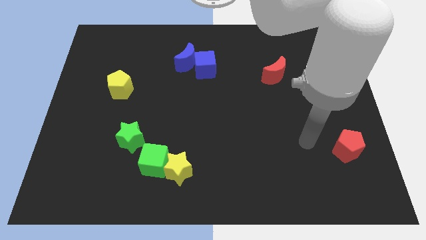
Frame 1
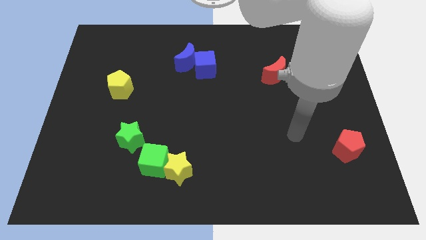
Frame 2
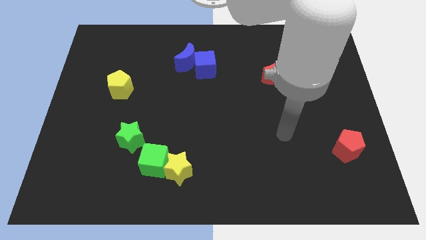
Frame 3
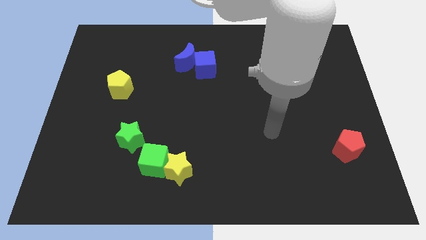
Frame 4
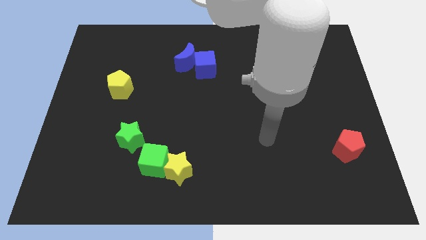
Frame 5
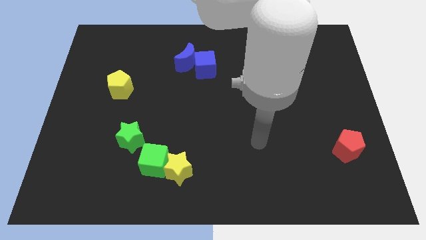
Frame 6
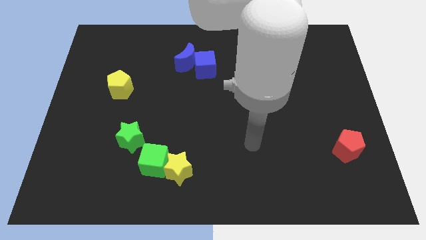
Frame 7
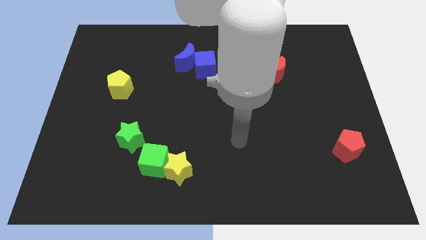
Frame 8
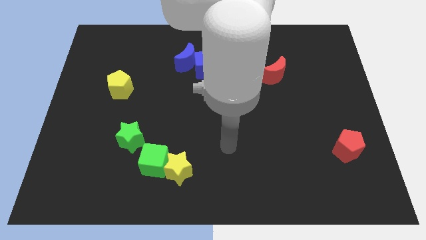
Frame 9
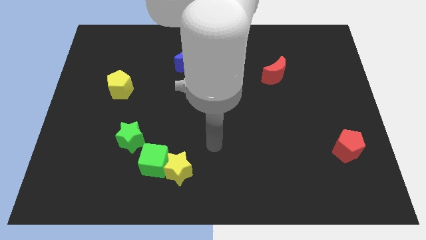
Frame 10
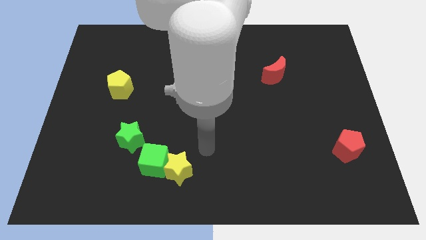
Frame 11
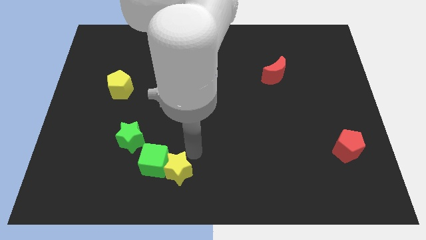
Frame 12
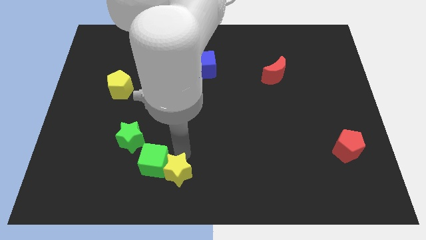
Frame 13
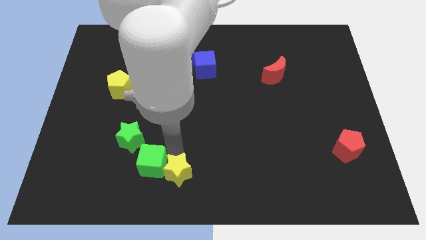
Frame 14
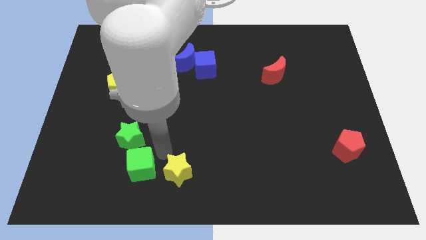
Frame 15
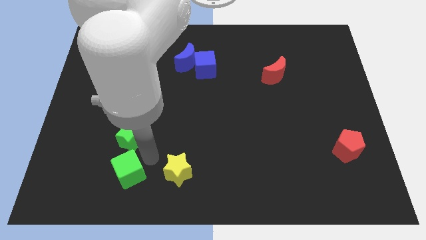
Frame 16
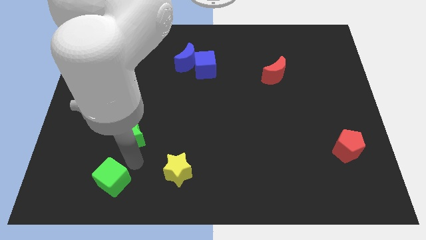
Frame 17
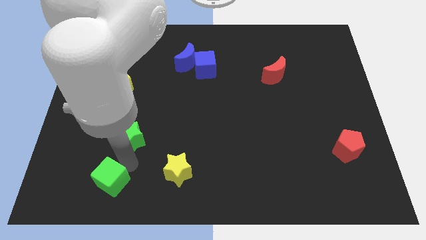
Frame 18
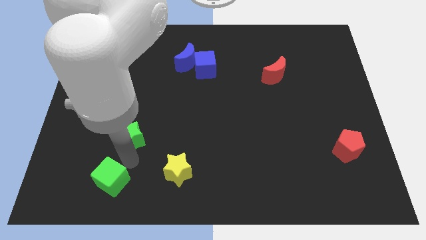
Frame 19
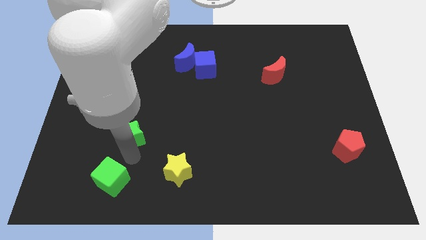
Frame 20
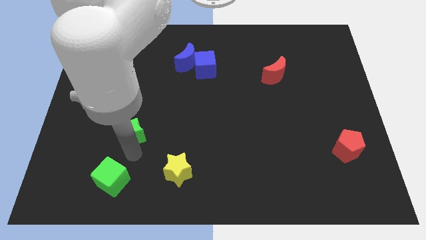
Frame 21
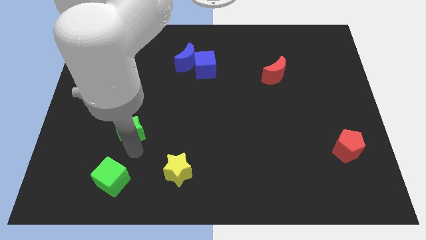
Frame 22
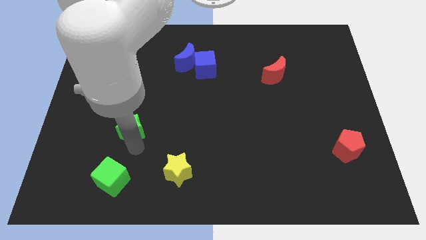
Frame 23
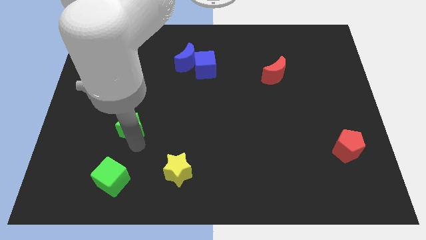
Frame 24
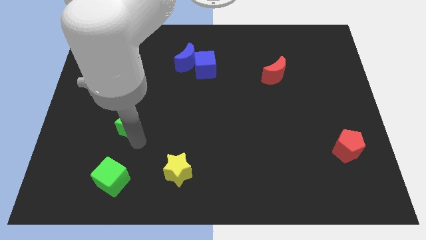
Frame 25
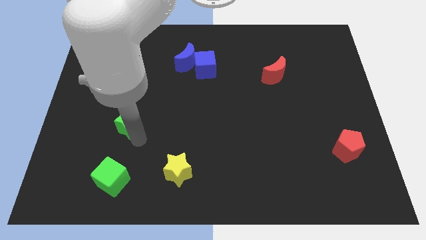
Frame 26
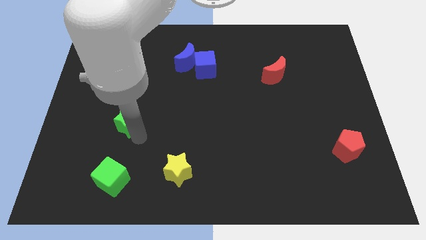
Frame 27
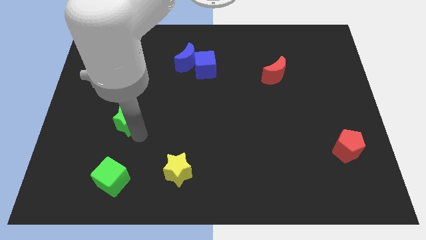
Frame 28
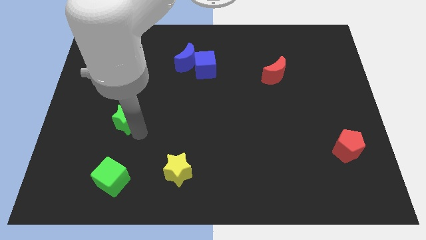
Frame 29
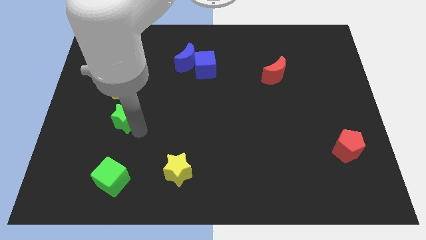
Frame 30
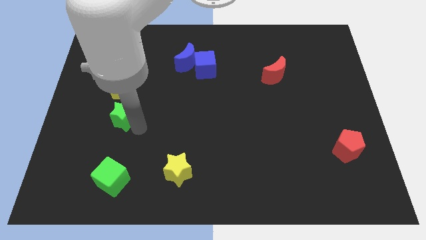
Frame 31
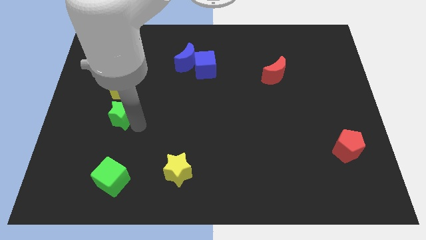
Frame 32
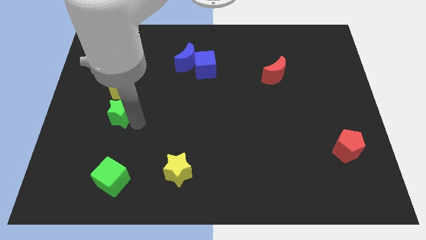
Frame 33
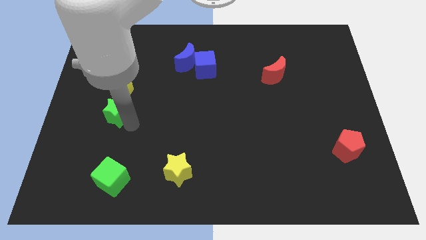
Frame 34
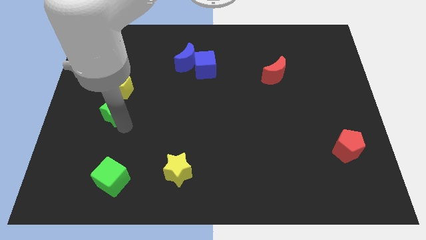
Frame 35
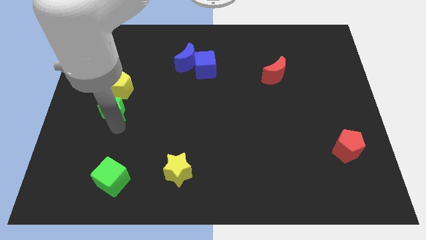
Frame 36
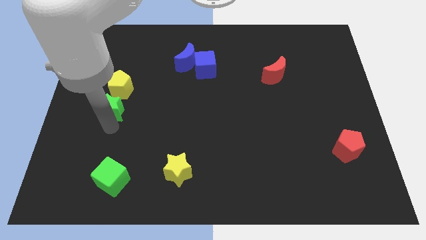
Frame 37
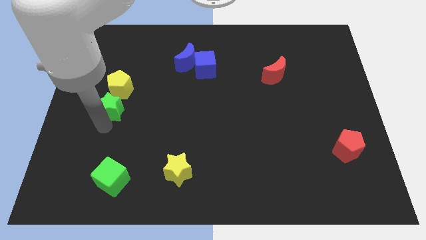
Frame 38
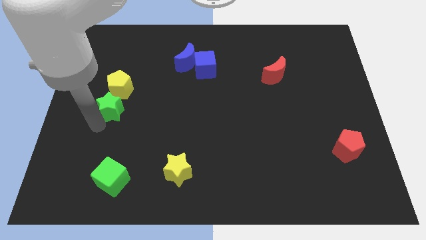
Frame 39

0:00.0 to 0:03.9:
slightly push the green star upwards

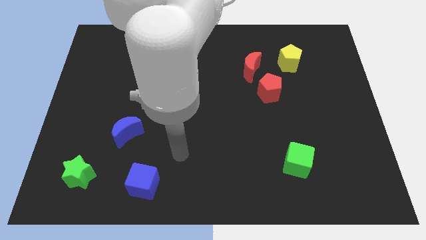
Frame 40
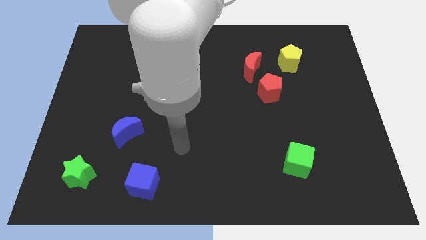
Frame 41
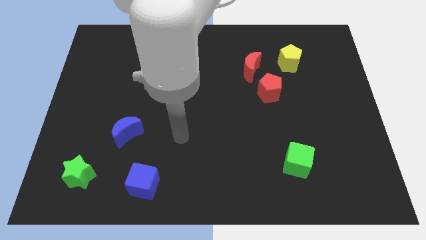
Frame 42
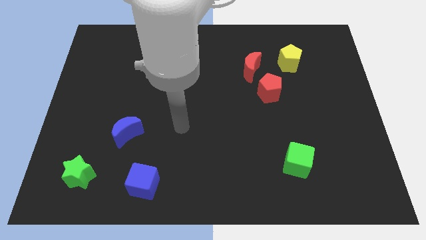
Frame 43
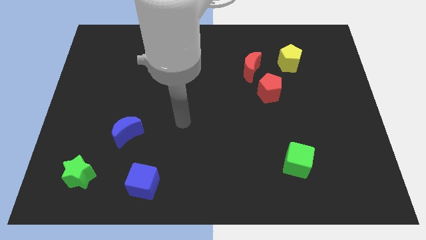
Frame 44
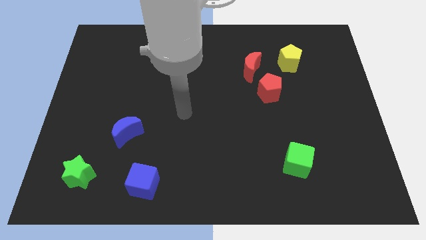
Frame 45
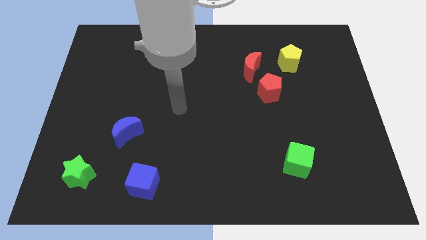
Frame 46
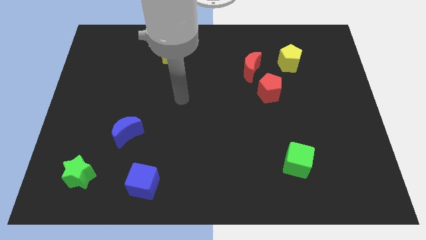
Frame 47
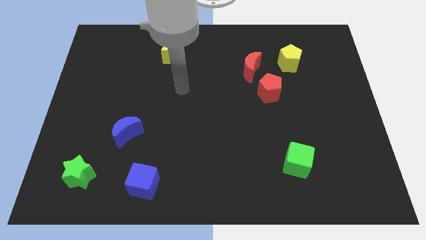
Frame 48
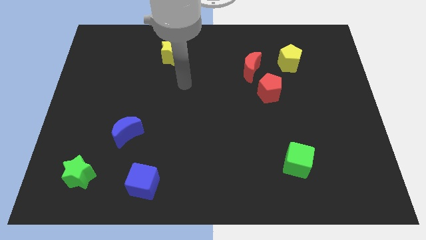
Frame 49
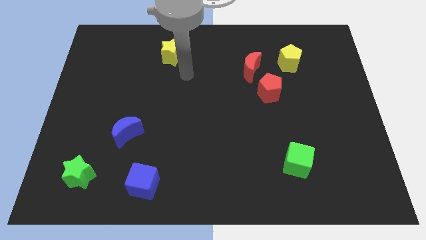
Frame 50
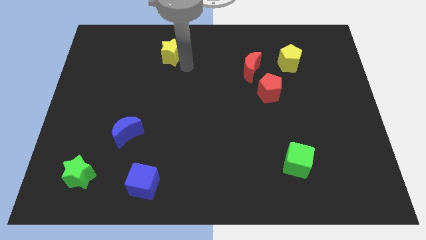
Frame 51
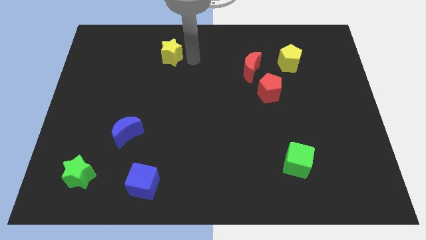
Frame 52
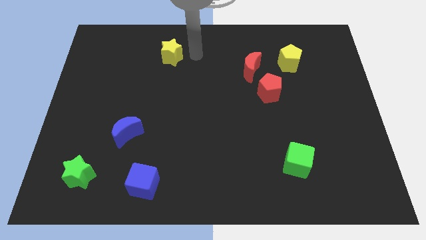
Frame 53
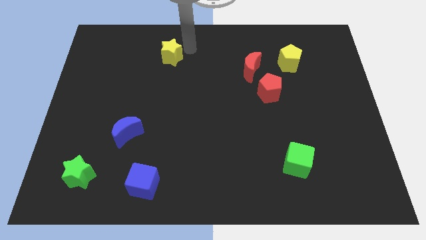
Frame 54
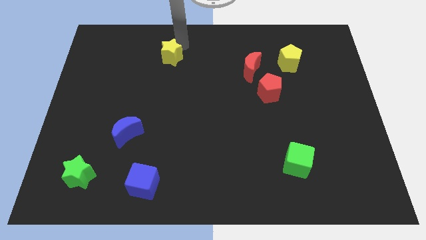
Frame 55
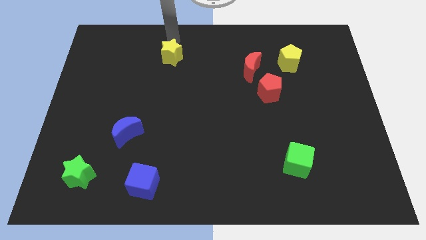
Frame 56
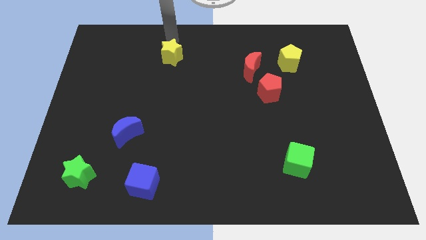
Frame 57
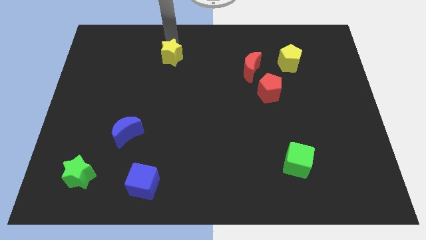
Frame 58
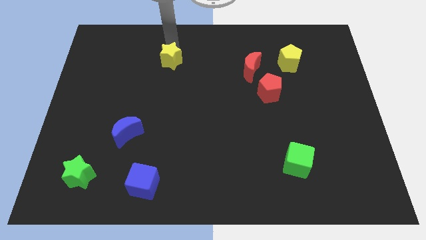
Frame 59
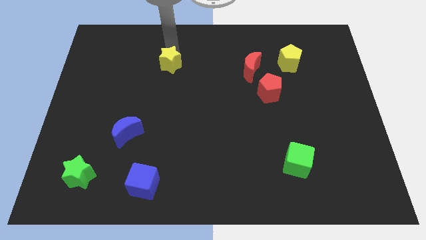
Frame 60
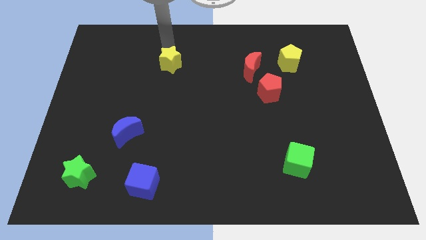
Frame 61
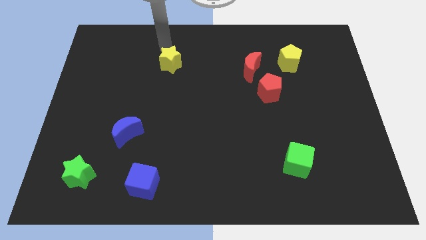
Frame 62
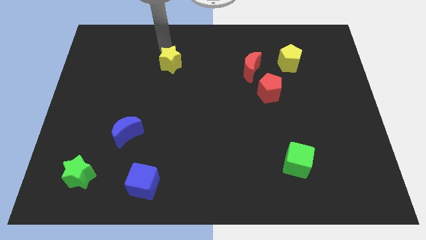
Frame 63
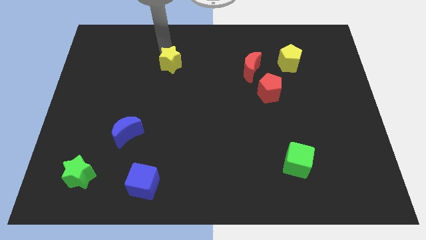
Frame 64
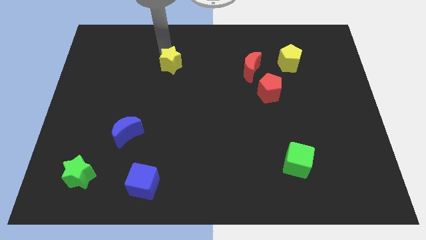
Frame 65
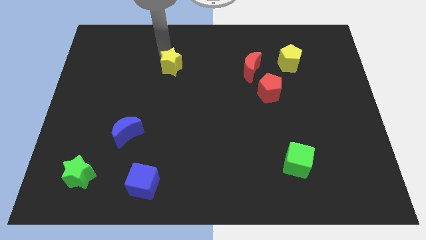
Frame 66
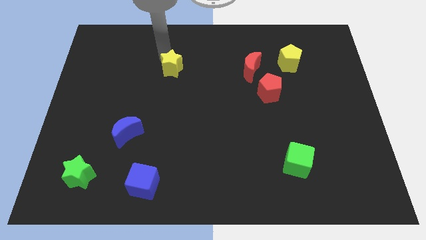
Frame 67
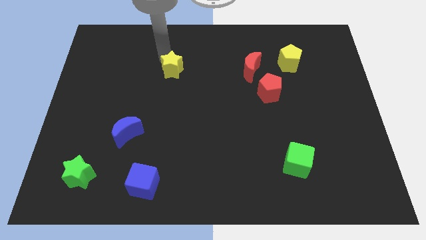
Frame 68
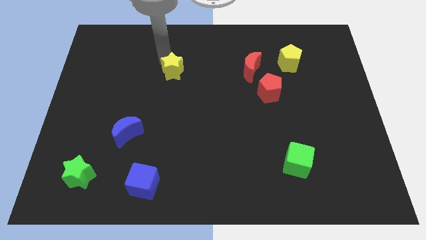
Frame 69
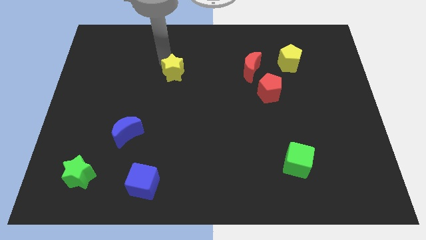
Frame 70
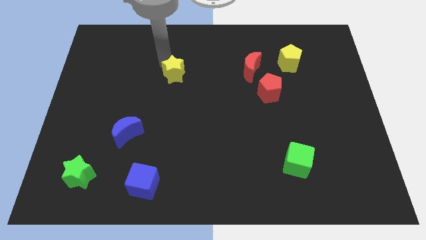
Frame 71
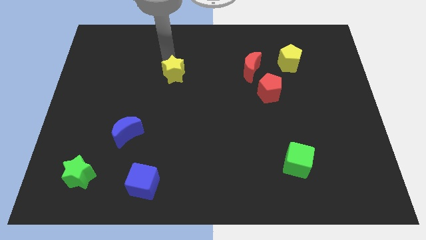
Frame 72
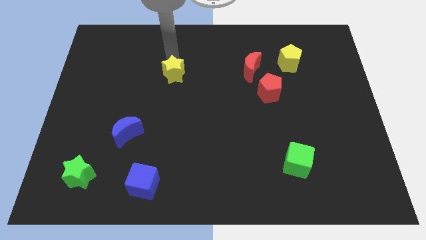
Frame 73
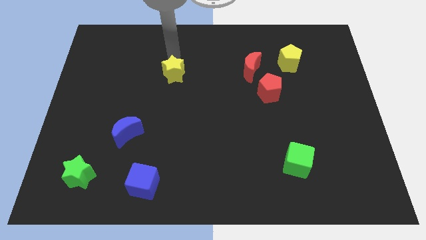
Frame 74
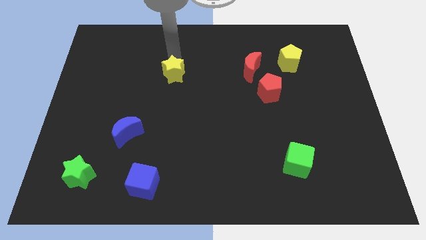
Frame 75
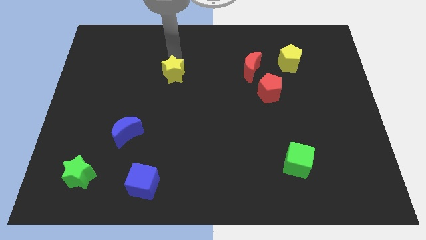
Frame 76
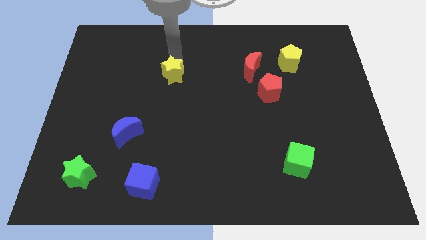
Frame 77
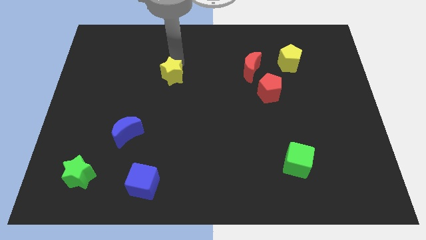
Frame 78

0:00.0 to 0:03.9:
push the yellow star somewhat downwards

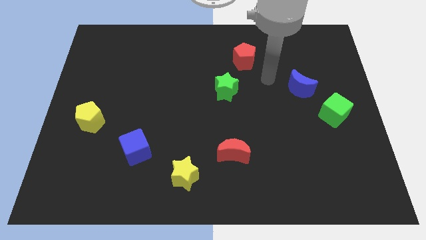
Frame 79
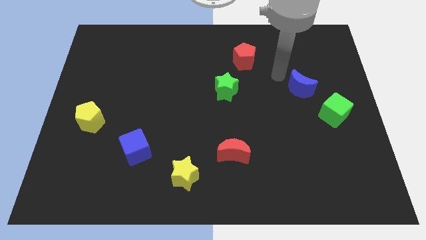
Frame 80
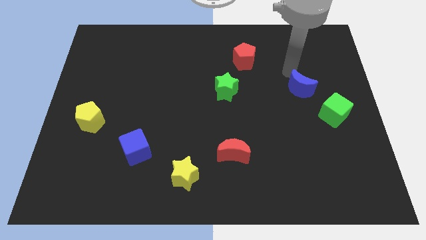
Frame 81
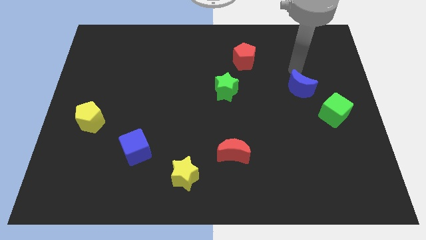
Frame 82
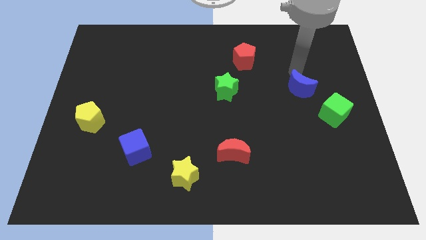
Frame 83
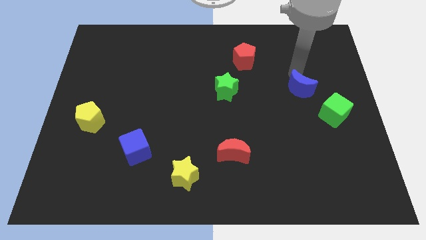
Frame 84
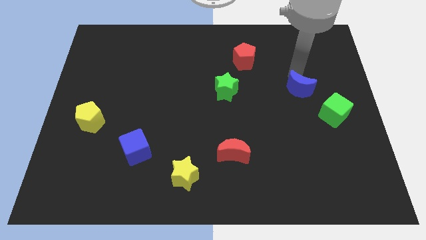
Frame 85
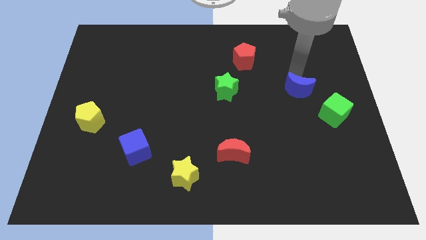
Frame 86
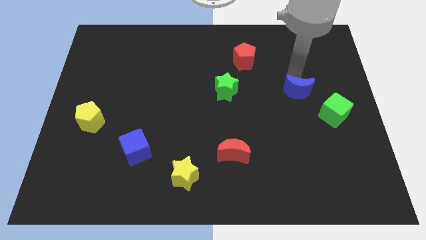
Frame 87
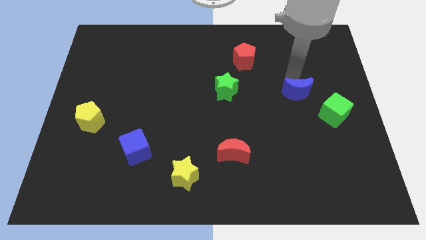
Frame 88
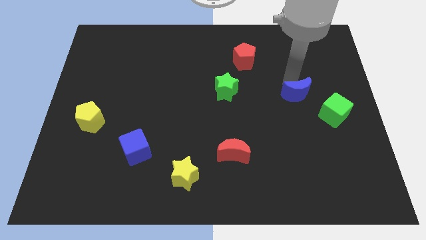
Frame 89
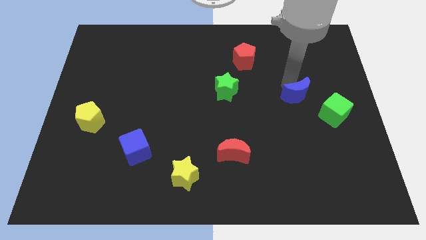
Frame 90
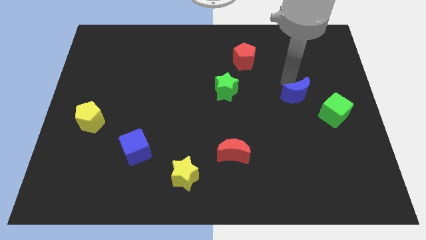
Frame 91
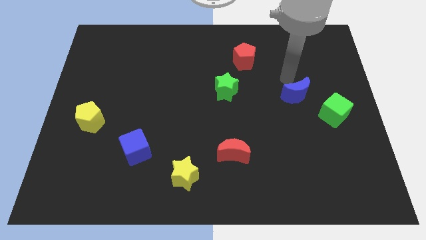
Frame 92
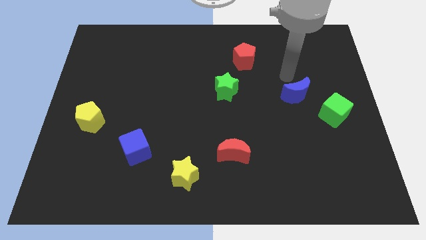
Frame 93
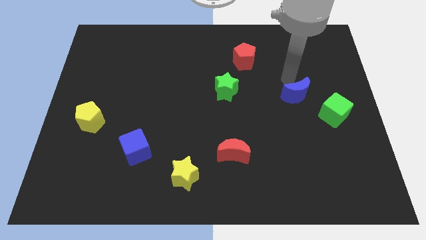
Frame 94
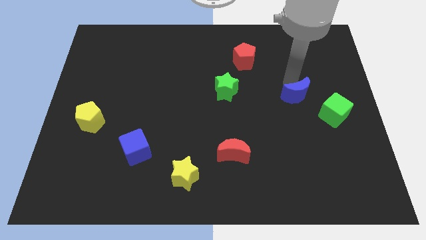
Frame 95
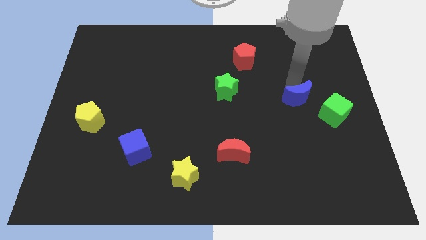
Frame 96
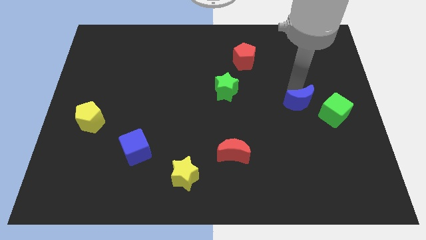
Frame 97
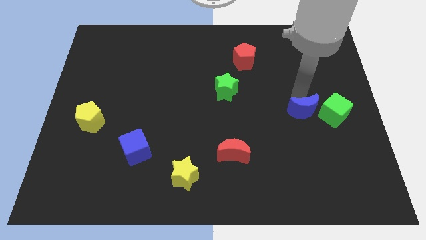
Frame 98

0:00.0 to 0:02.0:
push the blue moon downwards slightly
